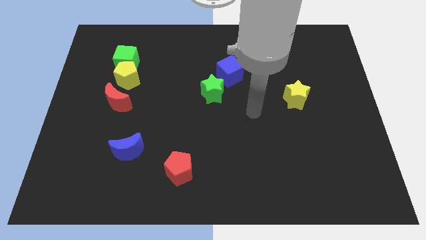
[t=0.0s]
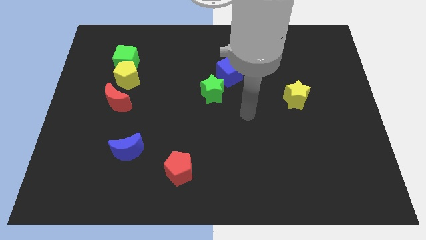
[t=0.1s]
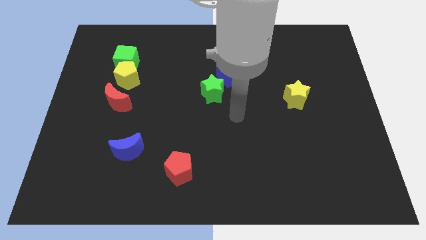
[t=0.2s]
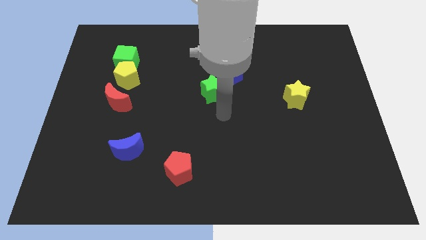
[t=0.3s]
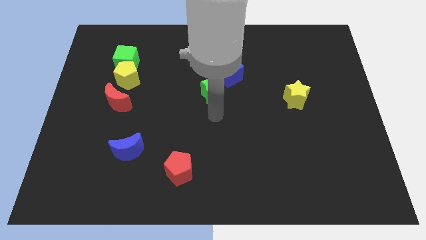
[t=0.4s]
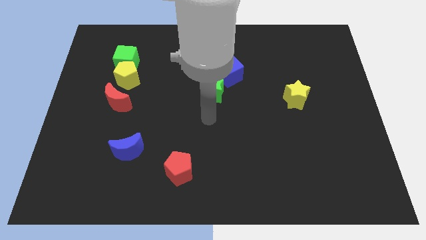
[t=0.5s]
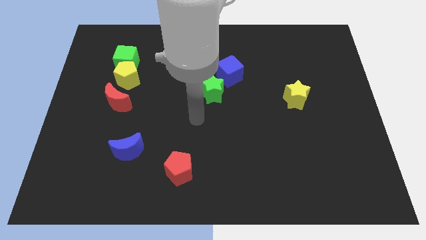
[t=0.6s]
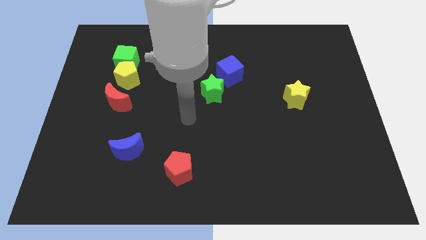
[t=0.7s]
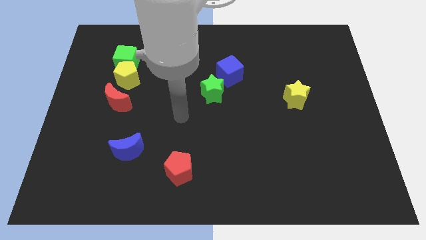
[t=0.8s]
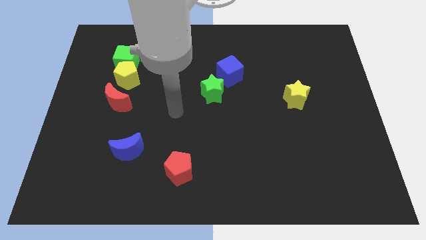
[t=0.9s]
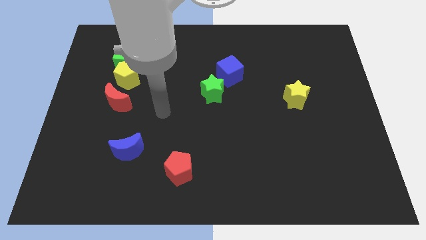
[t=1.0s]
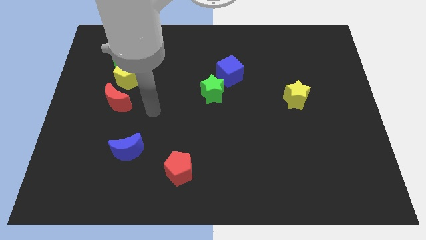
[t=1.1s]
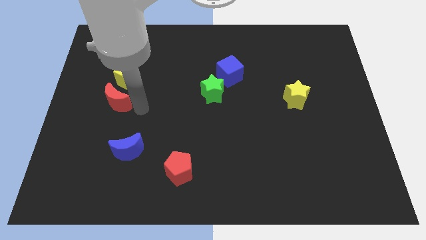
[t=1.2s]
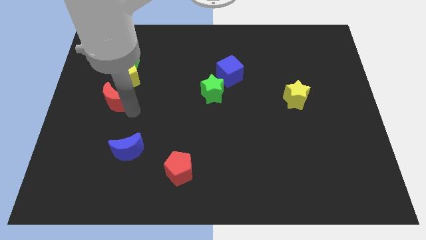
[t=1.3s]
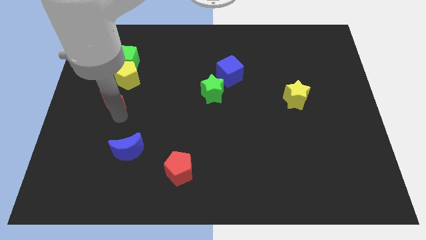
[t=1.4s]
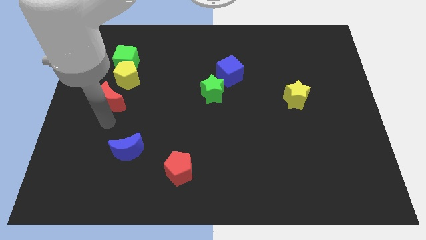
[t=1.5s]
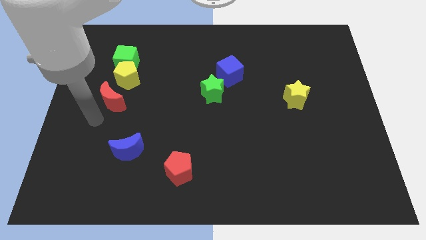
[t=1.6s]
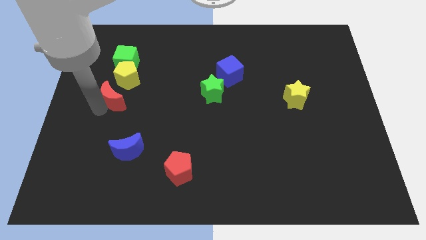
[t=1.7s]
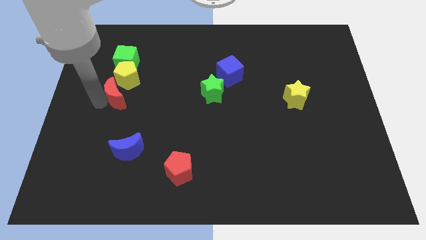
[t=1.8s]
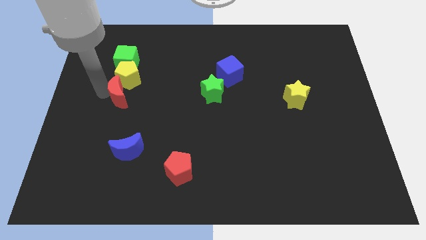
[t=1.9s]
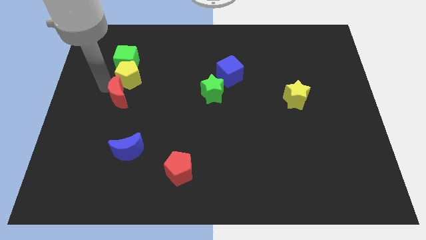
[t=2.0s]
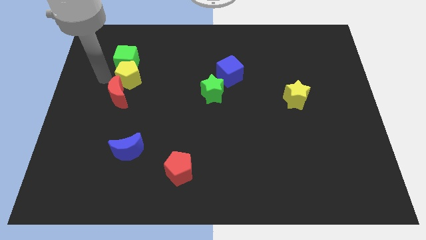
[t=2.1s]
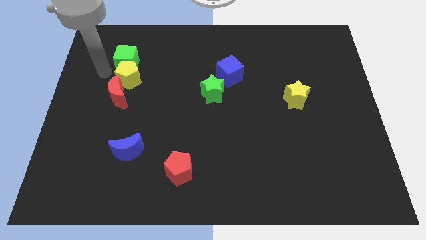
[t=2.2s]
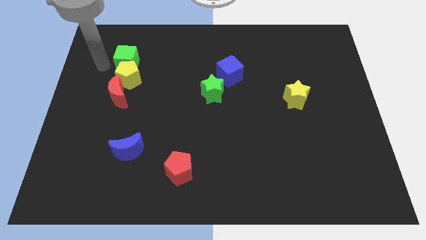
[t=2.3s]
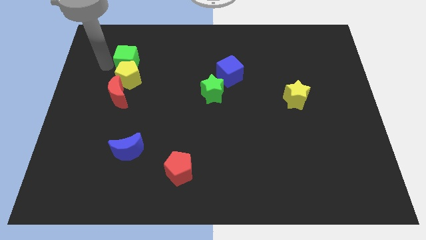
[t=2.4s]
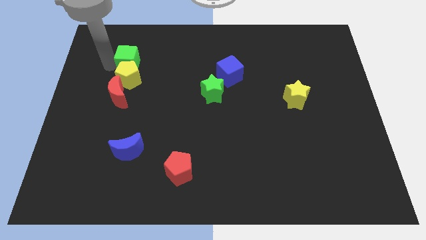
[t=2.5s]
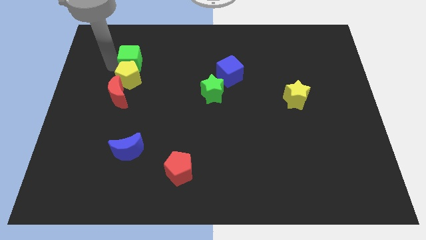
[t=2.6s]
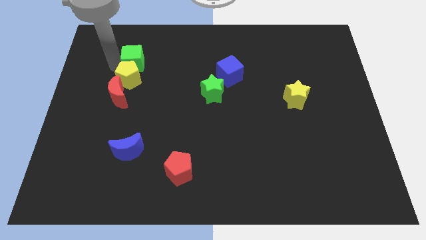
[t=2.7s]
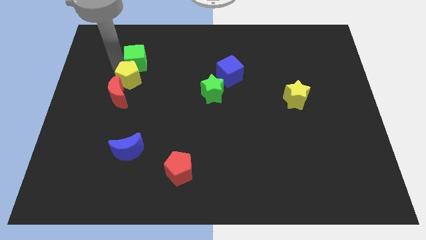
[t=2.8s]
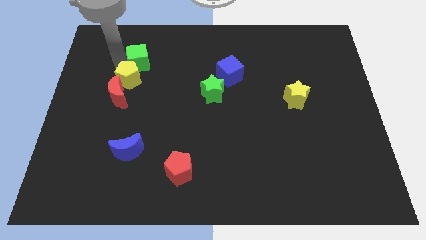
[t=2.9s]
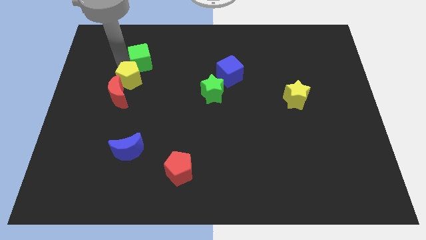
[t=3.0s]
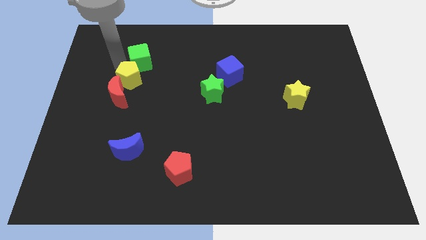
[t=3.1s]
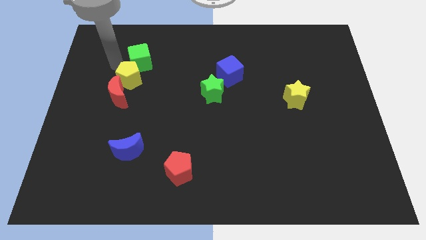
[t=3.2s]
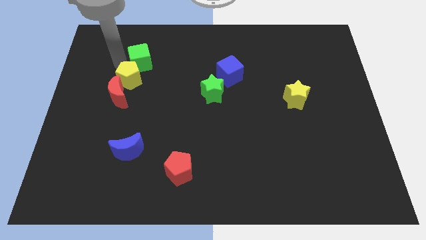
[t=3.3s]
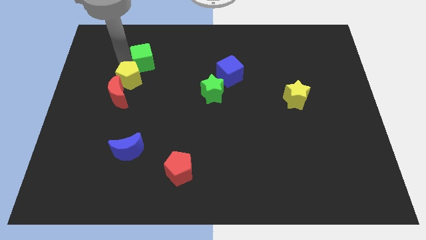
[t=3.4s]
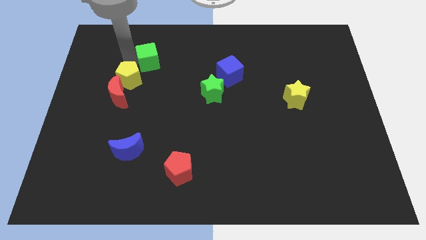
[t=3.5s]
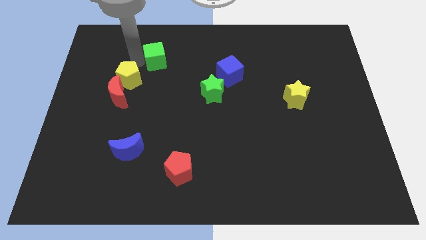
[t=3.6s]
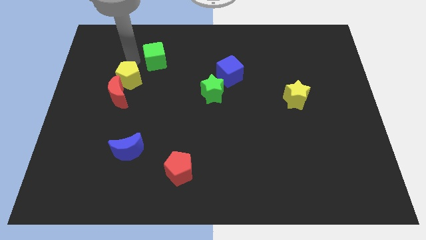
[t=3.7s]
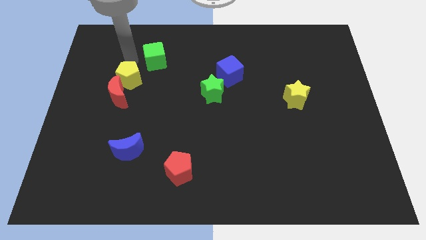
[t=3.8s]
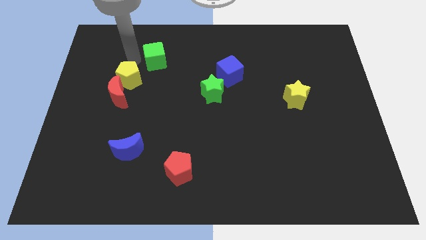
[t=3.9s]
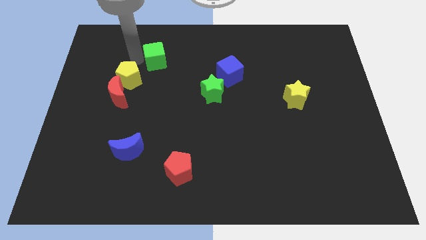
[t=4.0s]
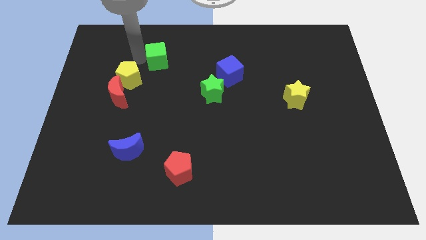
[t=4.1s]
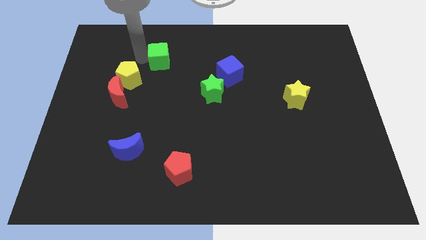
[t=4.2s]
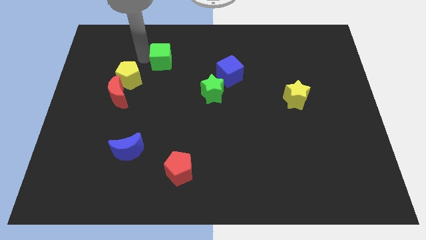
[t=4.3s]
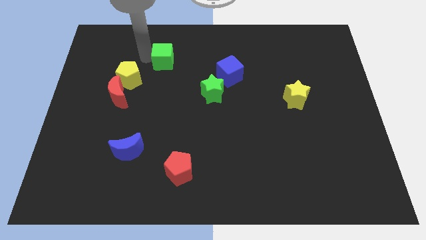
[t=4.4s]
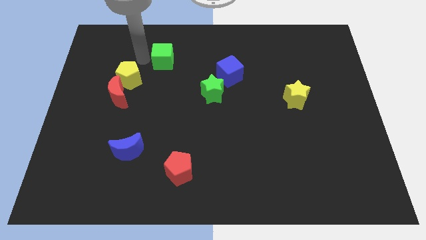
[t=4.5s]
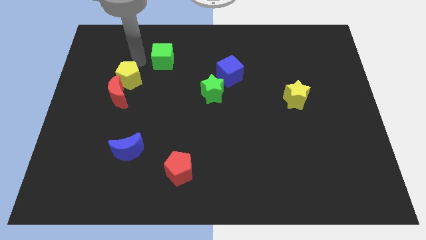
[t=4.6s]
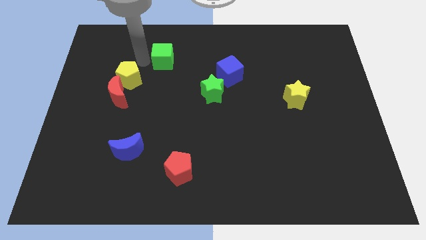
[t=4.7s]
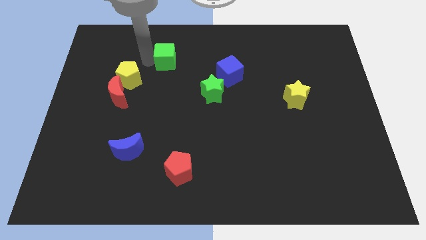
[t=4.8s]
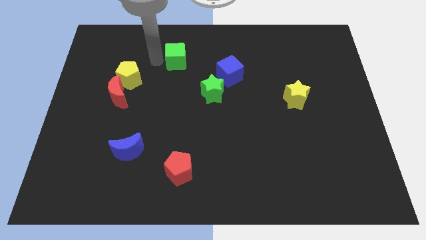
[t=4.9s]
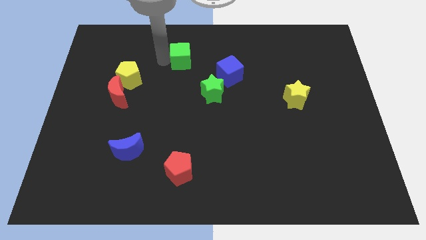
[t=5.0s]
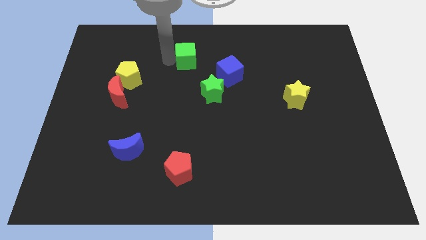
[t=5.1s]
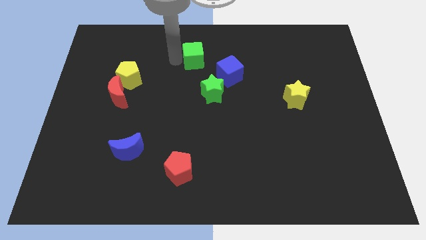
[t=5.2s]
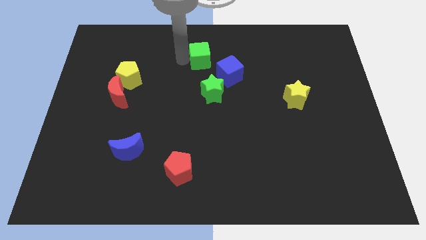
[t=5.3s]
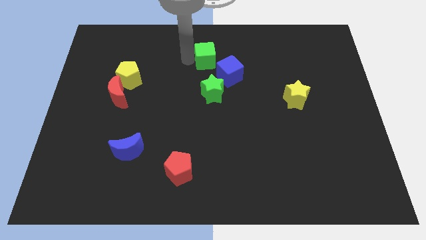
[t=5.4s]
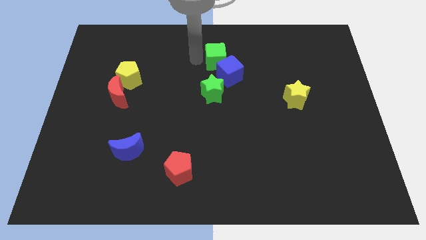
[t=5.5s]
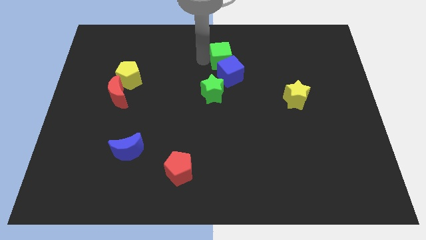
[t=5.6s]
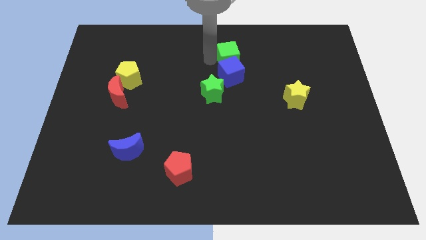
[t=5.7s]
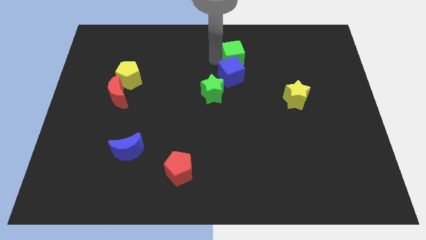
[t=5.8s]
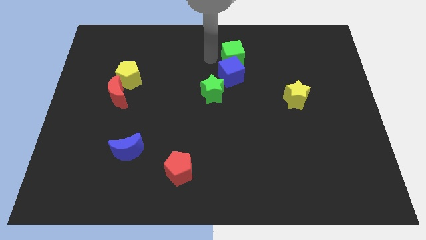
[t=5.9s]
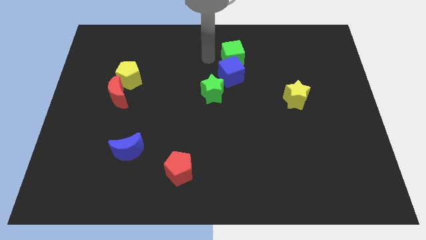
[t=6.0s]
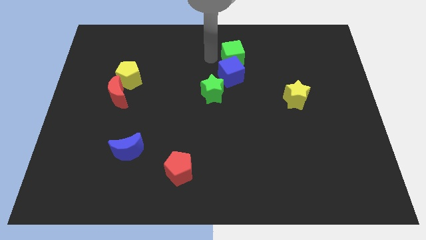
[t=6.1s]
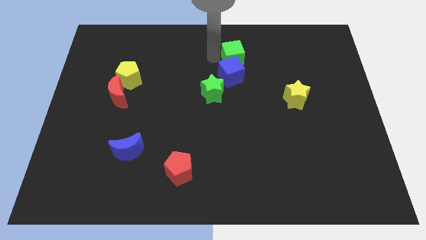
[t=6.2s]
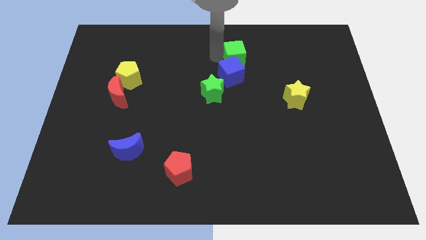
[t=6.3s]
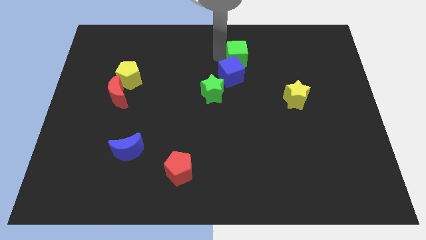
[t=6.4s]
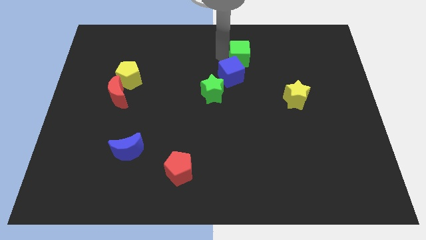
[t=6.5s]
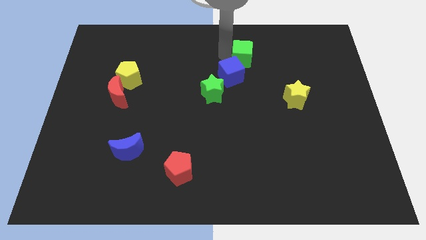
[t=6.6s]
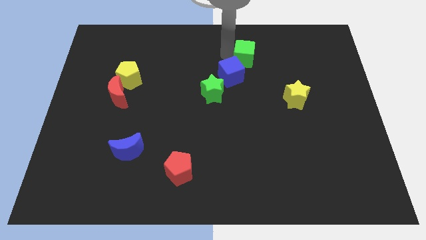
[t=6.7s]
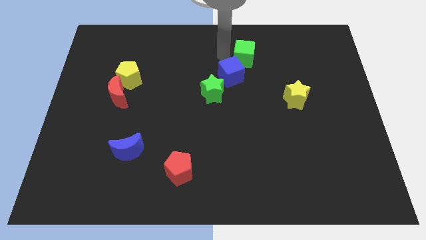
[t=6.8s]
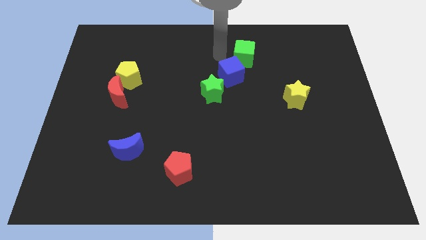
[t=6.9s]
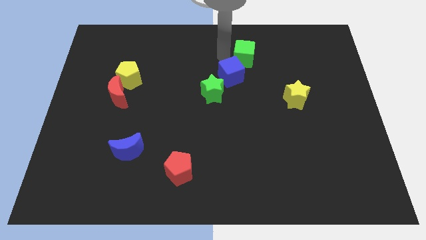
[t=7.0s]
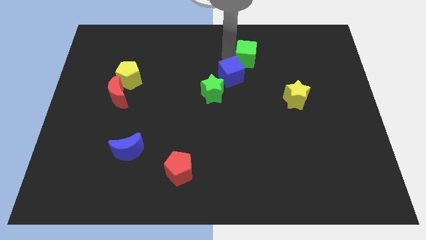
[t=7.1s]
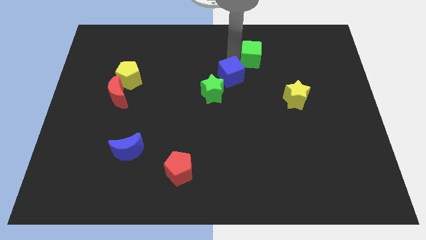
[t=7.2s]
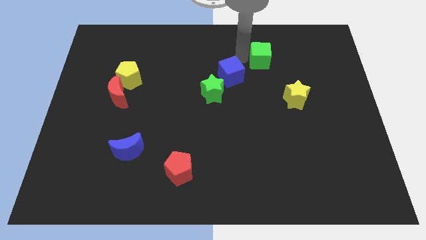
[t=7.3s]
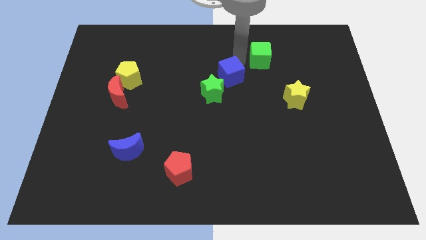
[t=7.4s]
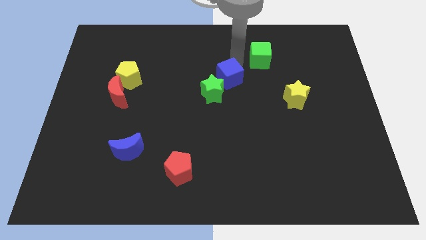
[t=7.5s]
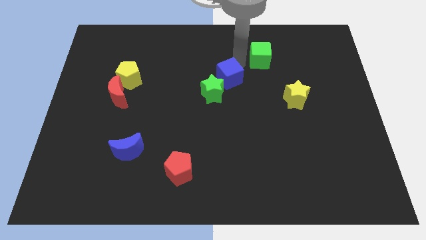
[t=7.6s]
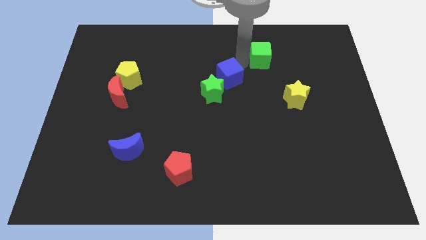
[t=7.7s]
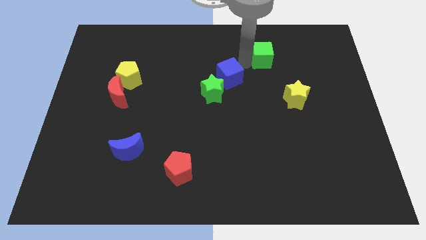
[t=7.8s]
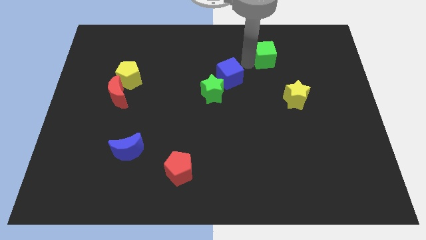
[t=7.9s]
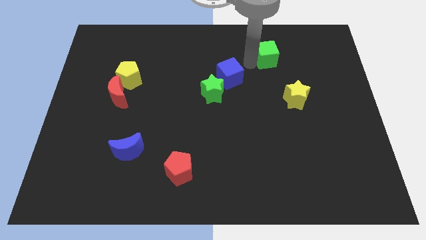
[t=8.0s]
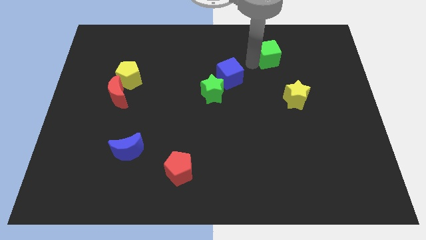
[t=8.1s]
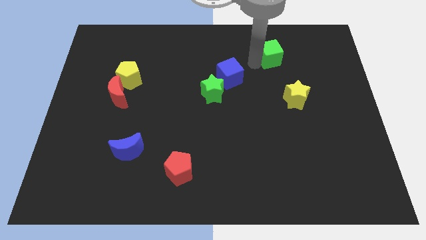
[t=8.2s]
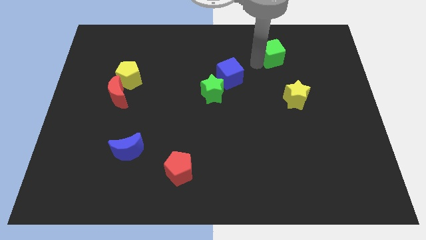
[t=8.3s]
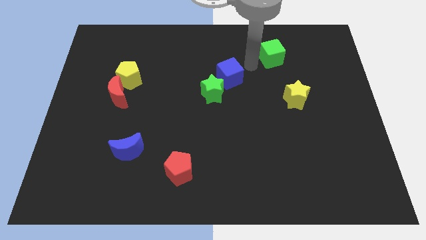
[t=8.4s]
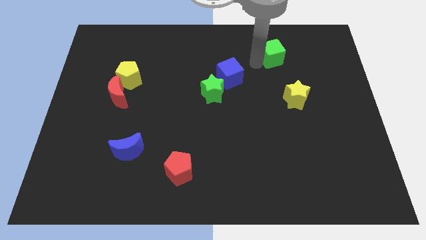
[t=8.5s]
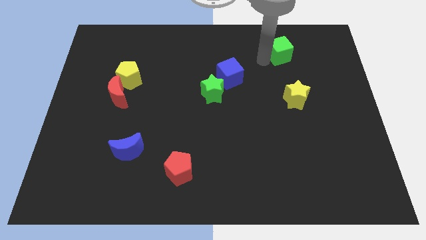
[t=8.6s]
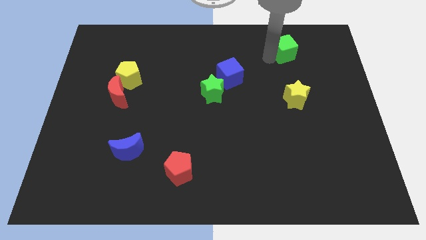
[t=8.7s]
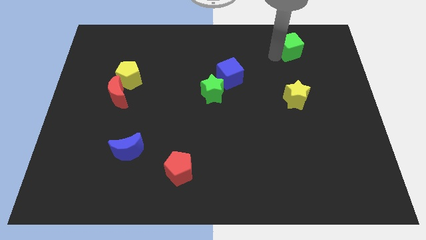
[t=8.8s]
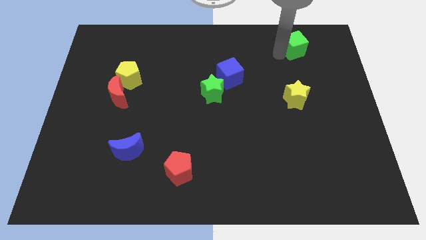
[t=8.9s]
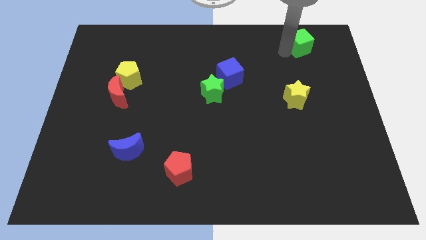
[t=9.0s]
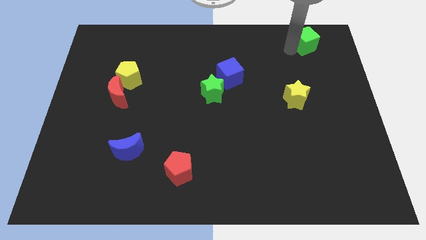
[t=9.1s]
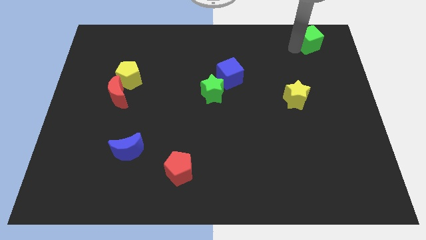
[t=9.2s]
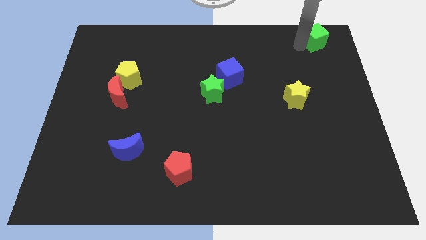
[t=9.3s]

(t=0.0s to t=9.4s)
push the green cube to the upper right corner
